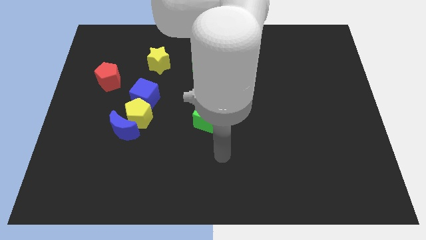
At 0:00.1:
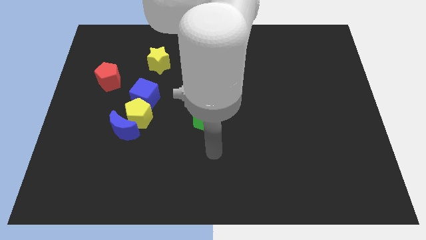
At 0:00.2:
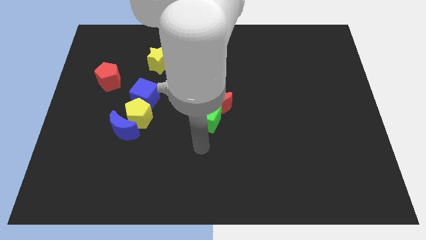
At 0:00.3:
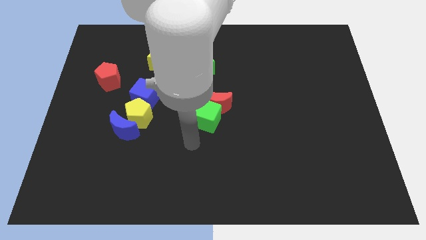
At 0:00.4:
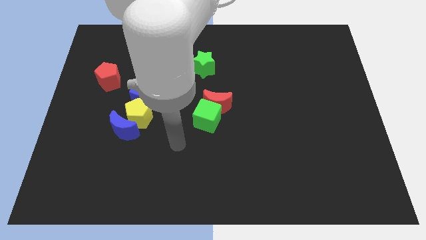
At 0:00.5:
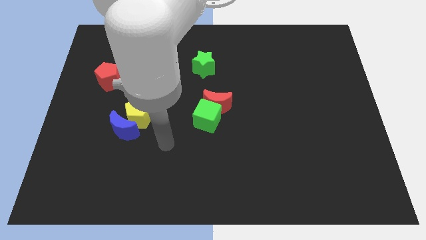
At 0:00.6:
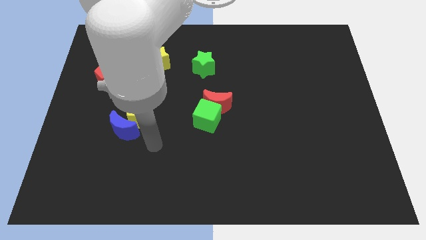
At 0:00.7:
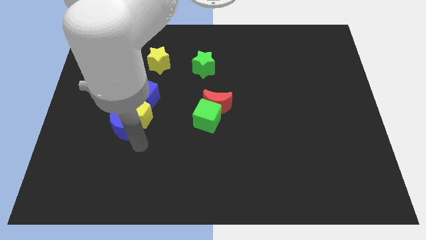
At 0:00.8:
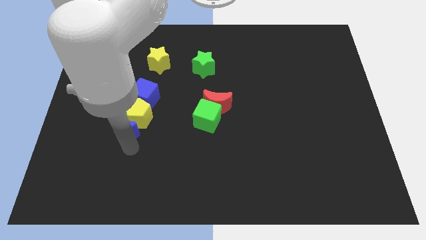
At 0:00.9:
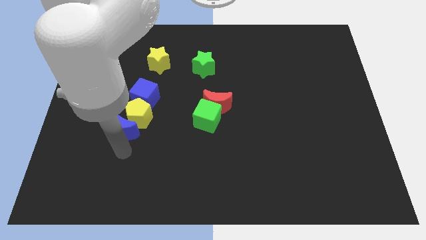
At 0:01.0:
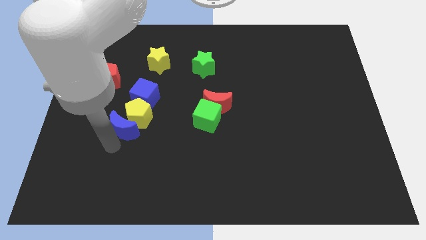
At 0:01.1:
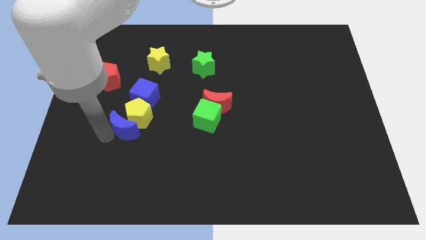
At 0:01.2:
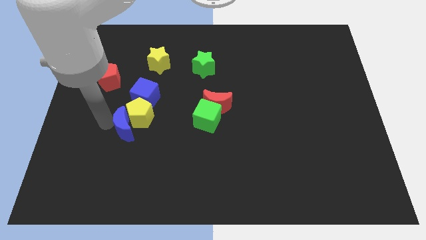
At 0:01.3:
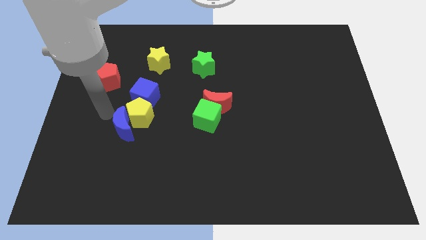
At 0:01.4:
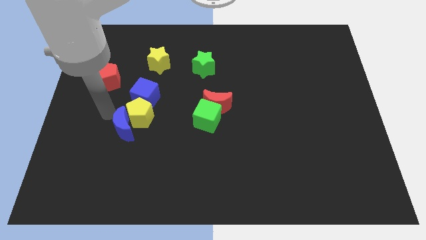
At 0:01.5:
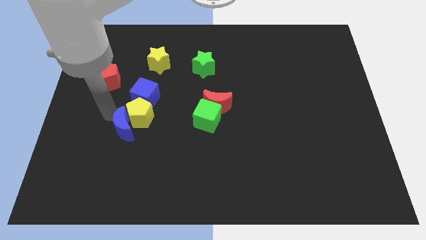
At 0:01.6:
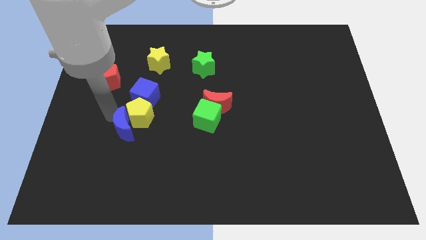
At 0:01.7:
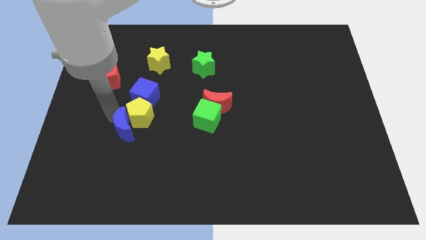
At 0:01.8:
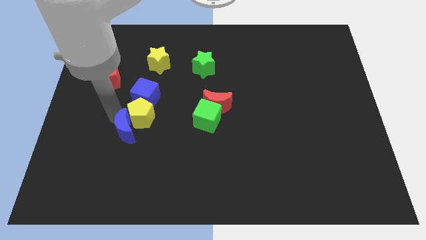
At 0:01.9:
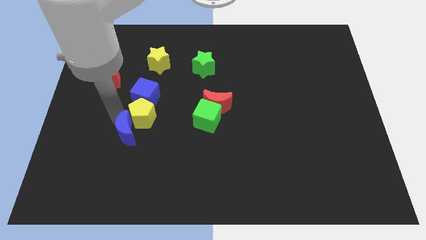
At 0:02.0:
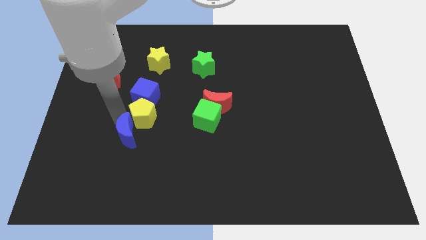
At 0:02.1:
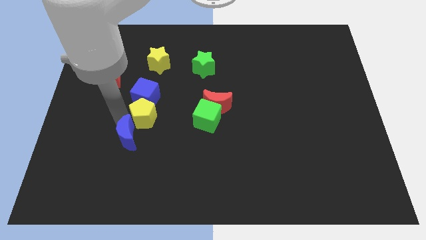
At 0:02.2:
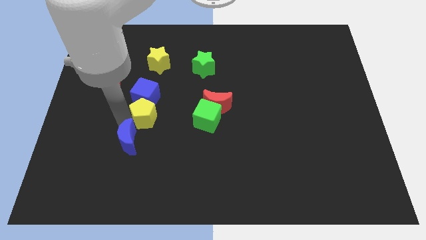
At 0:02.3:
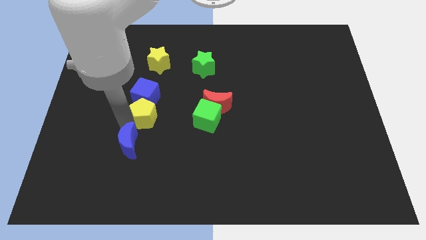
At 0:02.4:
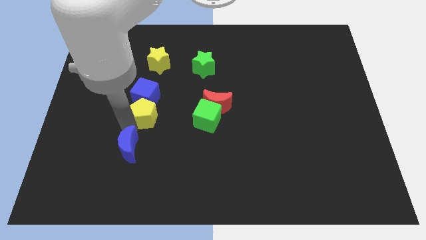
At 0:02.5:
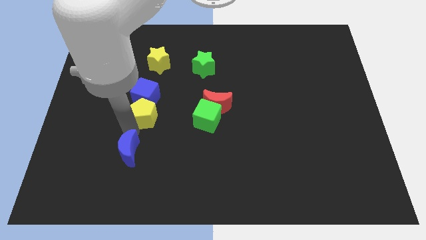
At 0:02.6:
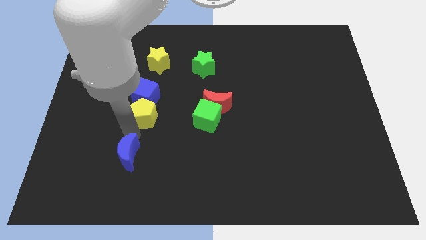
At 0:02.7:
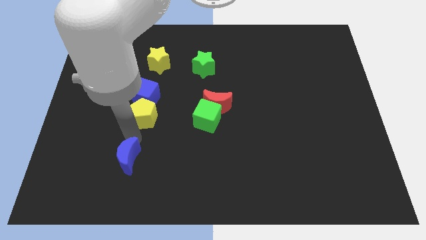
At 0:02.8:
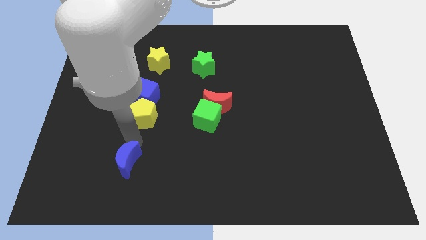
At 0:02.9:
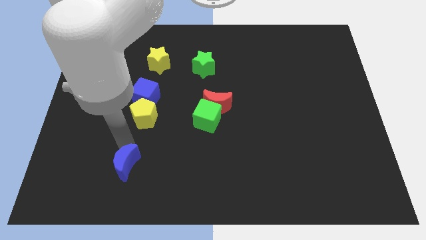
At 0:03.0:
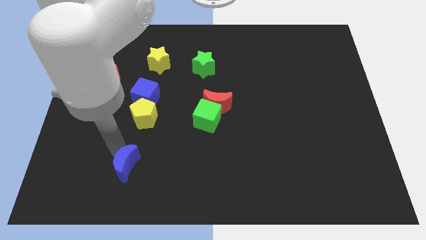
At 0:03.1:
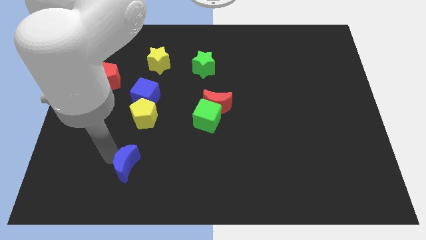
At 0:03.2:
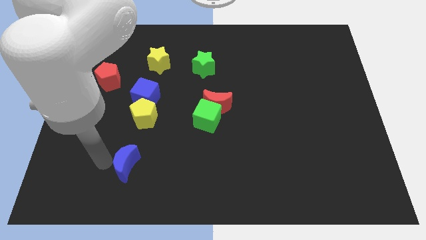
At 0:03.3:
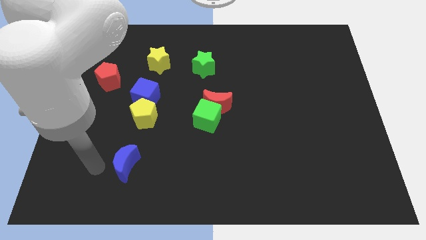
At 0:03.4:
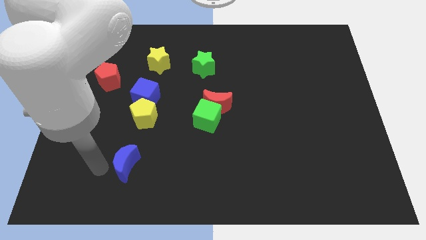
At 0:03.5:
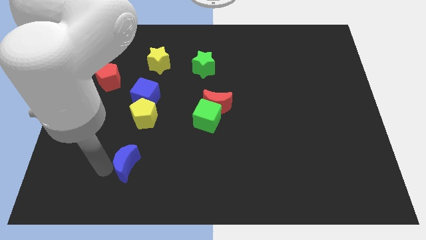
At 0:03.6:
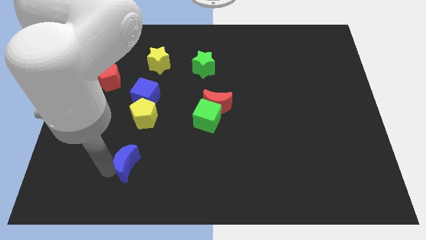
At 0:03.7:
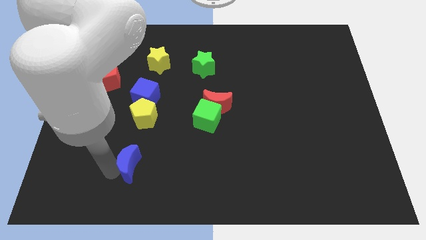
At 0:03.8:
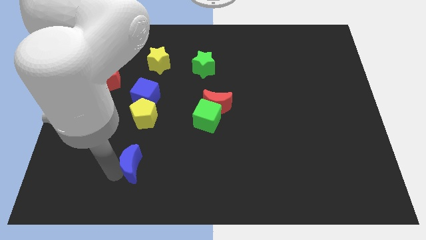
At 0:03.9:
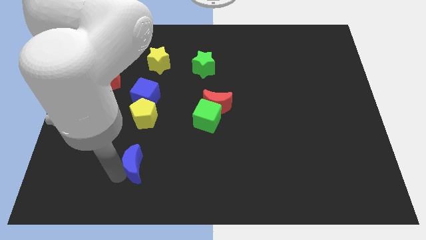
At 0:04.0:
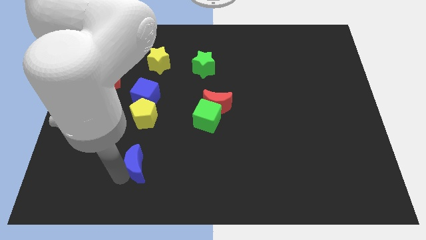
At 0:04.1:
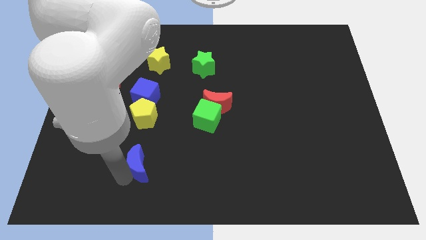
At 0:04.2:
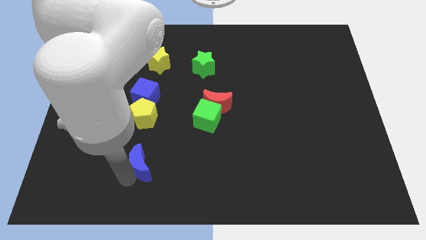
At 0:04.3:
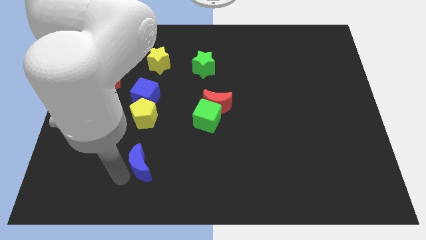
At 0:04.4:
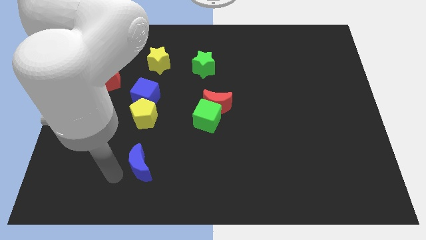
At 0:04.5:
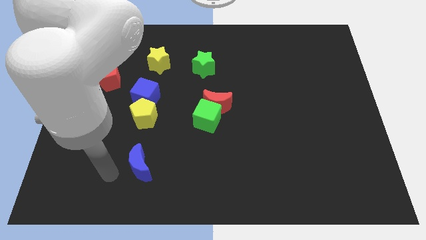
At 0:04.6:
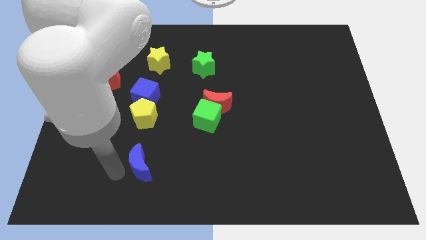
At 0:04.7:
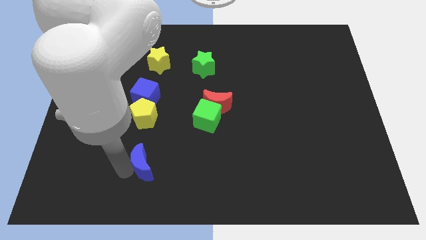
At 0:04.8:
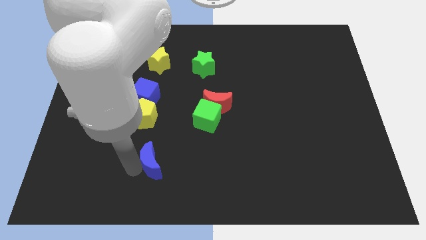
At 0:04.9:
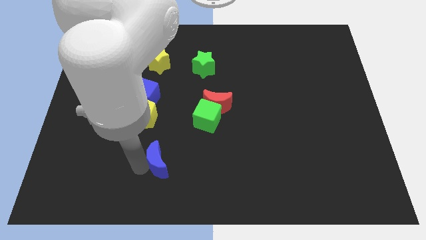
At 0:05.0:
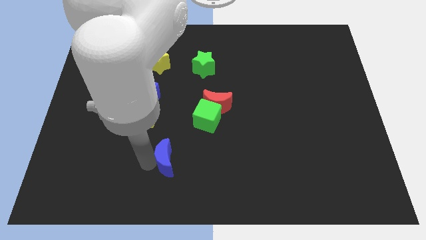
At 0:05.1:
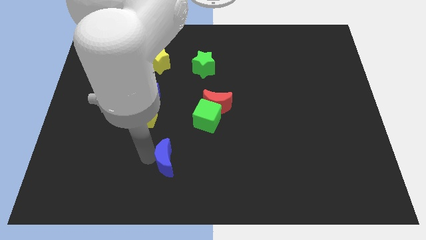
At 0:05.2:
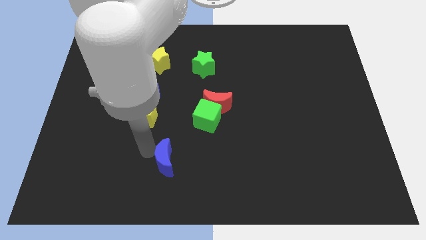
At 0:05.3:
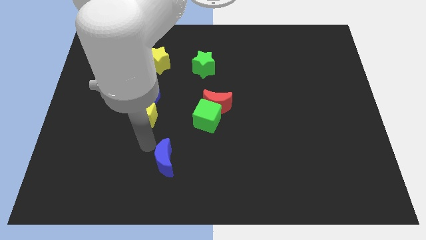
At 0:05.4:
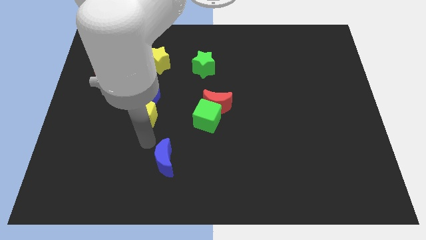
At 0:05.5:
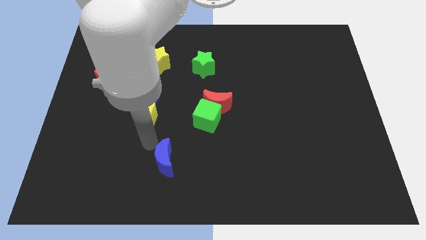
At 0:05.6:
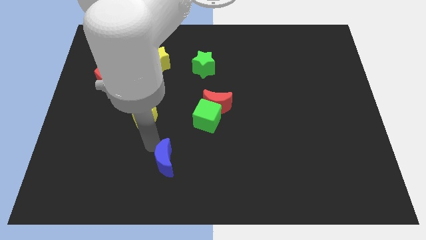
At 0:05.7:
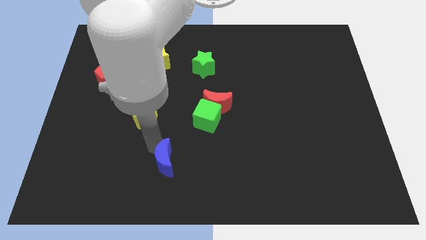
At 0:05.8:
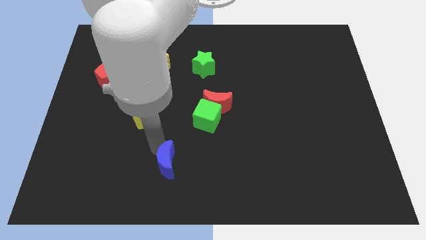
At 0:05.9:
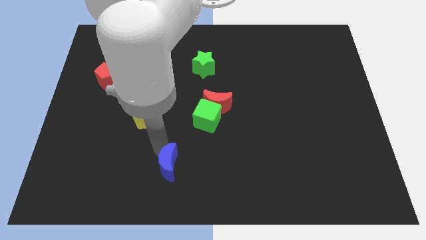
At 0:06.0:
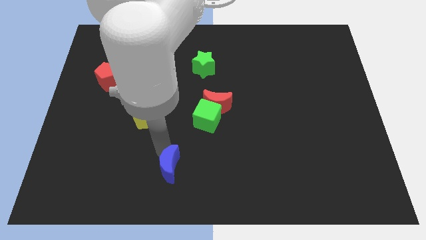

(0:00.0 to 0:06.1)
move the blue moon to the bottom side

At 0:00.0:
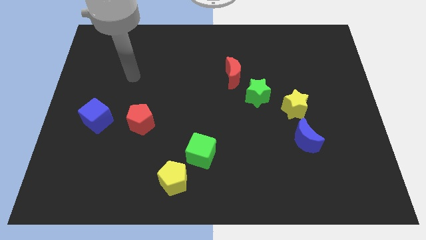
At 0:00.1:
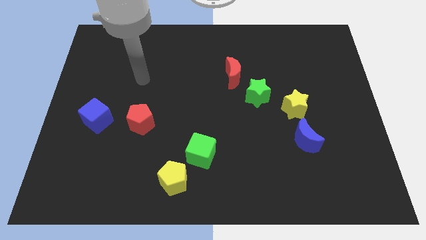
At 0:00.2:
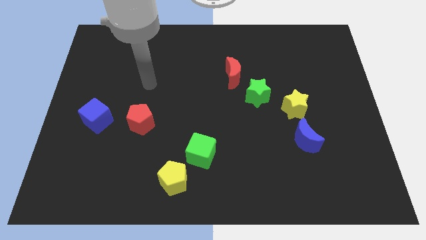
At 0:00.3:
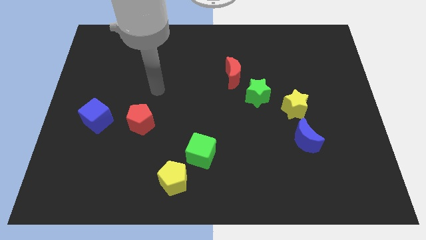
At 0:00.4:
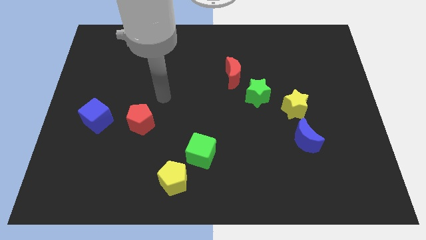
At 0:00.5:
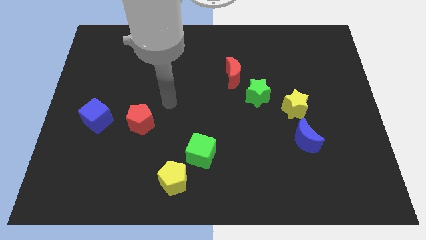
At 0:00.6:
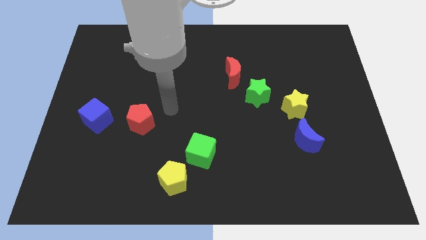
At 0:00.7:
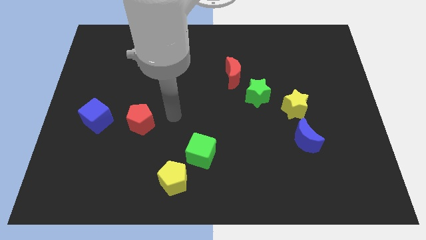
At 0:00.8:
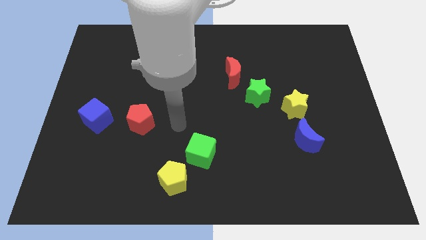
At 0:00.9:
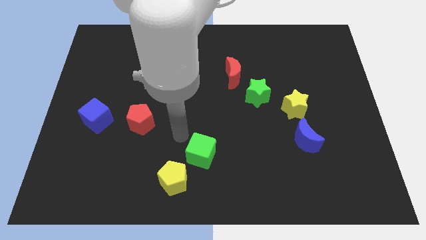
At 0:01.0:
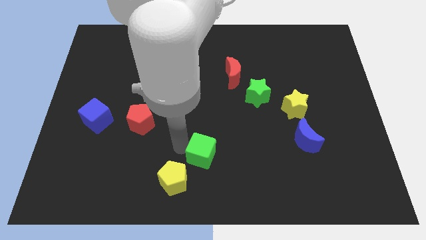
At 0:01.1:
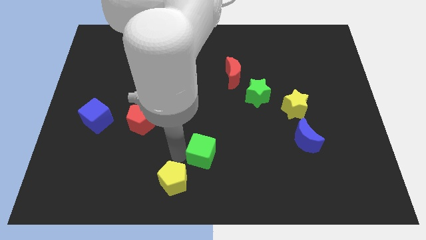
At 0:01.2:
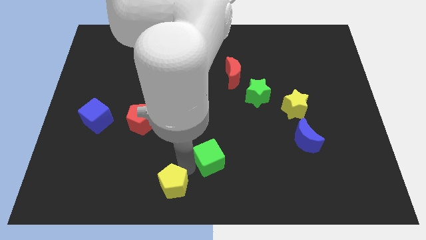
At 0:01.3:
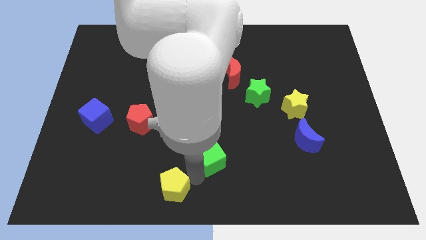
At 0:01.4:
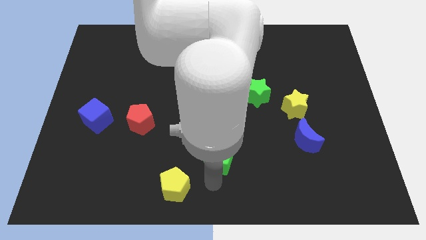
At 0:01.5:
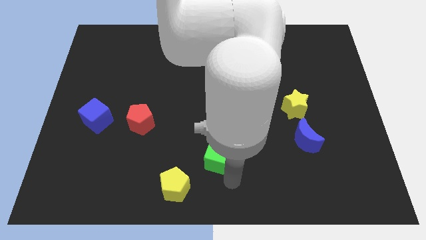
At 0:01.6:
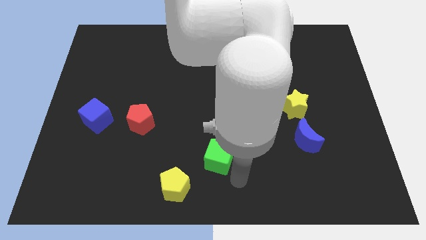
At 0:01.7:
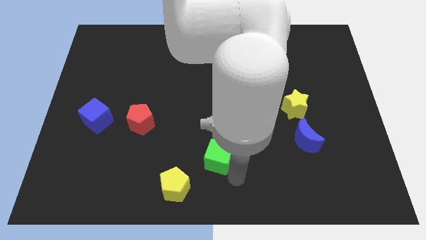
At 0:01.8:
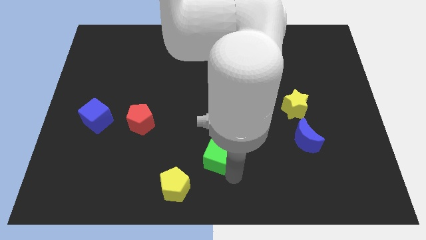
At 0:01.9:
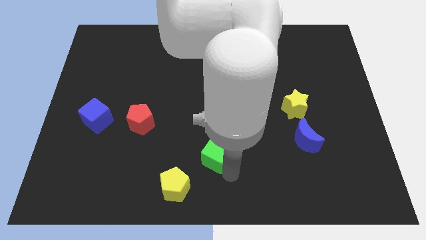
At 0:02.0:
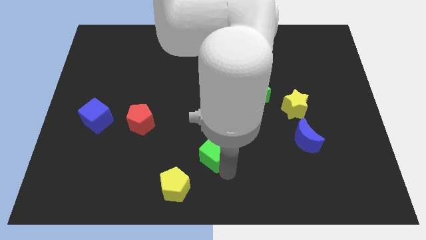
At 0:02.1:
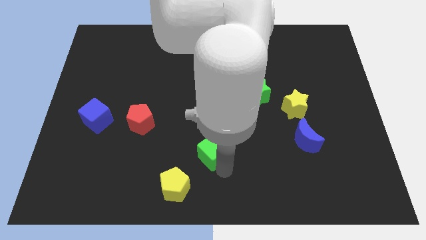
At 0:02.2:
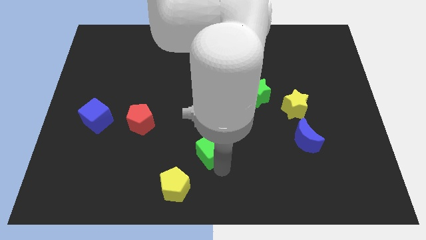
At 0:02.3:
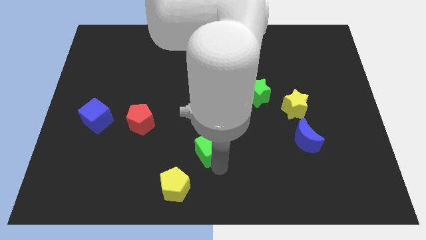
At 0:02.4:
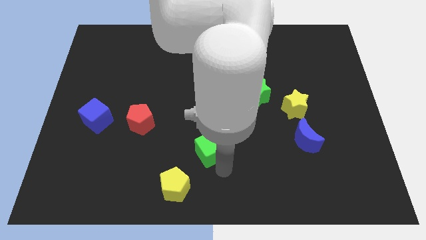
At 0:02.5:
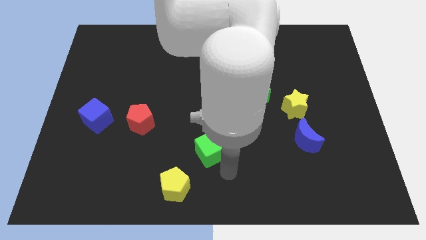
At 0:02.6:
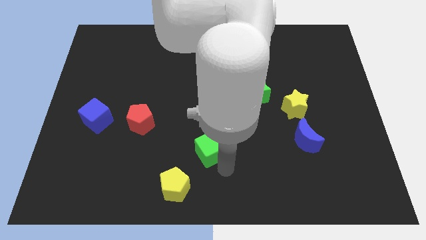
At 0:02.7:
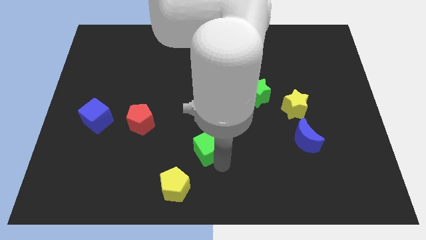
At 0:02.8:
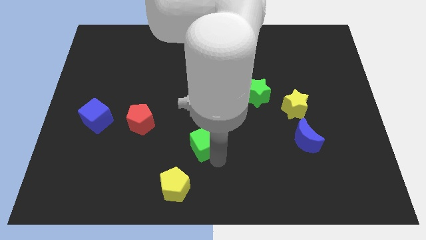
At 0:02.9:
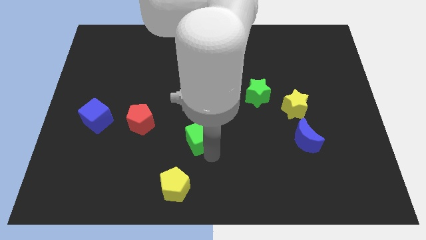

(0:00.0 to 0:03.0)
put the green cube to the middle
